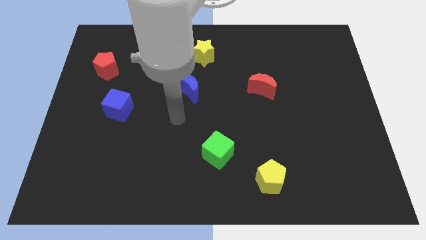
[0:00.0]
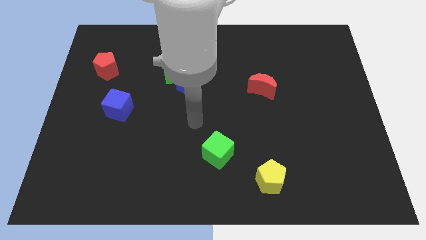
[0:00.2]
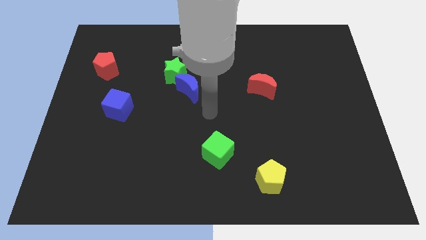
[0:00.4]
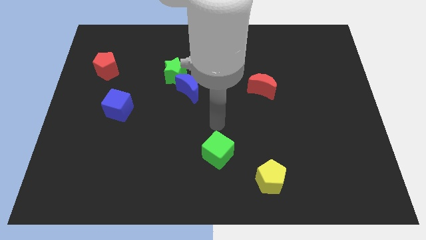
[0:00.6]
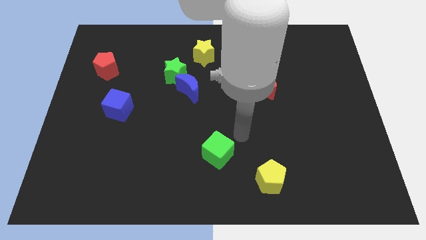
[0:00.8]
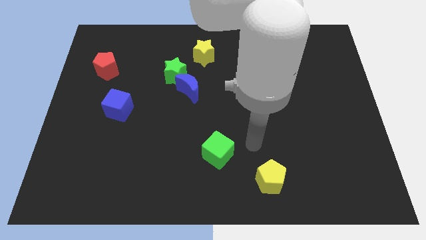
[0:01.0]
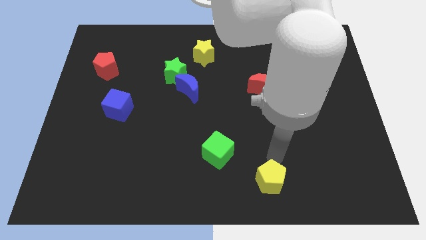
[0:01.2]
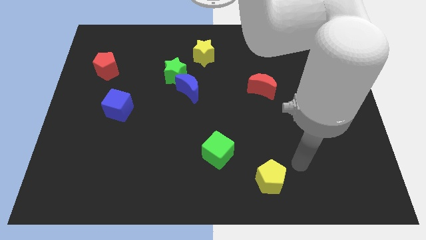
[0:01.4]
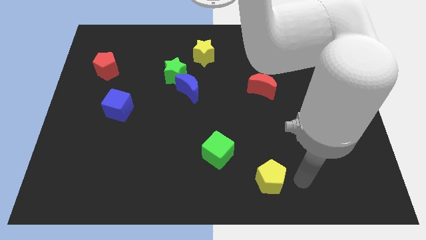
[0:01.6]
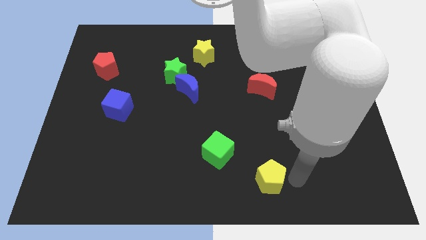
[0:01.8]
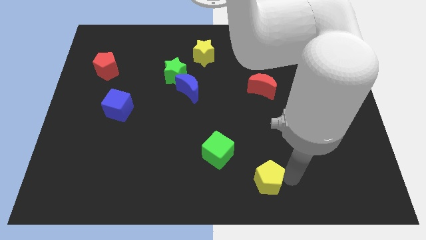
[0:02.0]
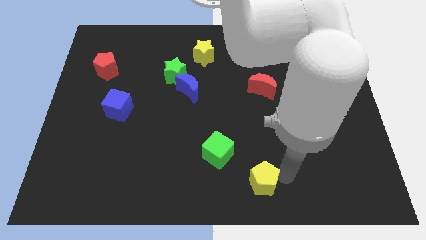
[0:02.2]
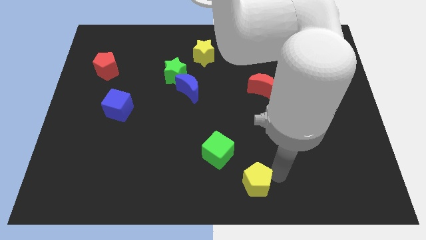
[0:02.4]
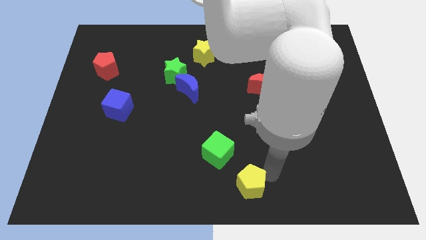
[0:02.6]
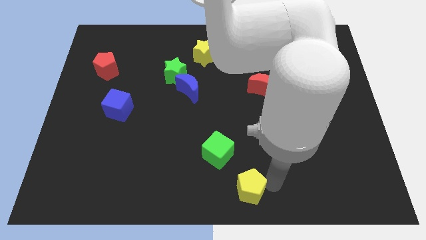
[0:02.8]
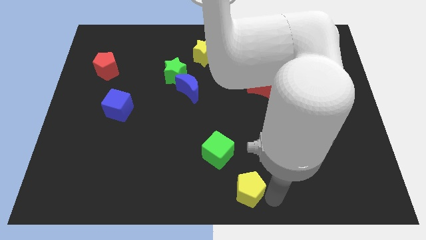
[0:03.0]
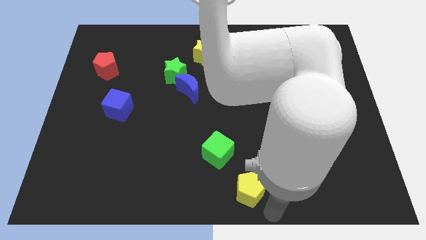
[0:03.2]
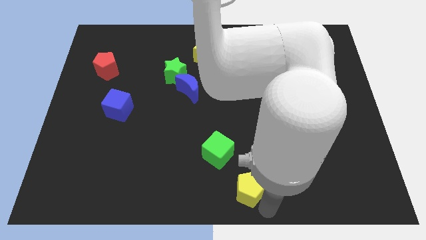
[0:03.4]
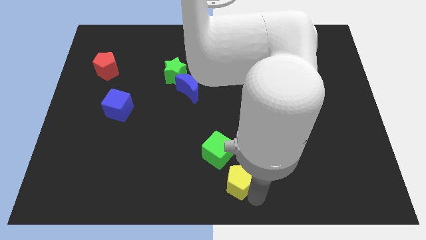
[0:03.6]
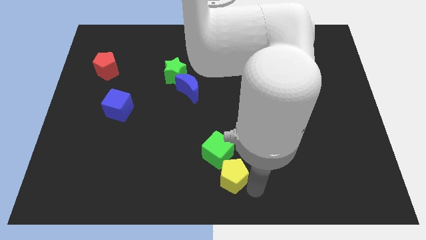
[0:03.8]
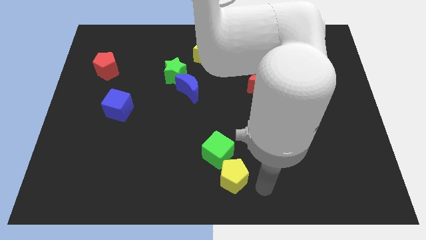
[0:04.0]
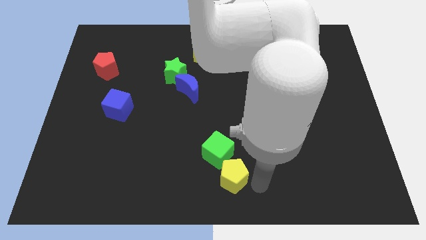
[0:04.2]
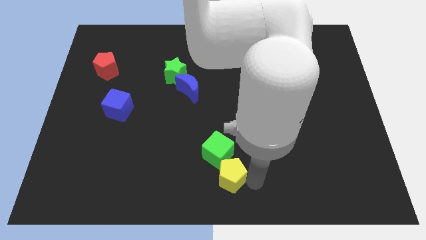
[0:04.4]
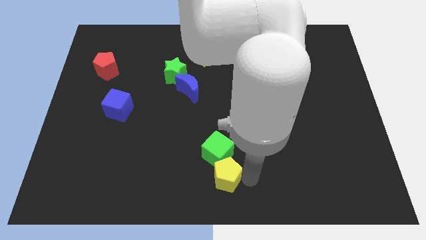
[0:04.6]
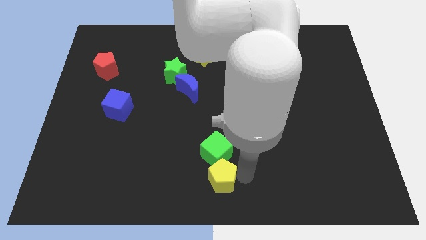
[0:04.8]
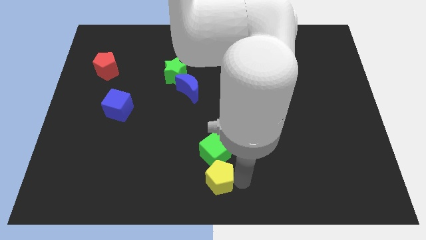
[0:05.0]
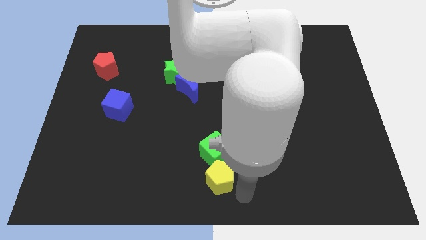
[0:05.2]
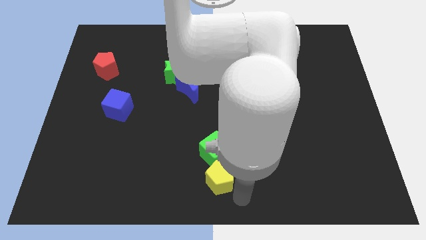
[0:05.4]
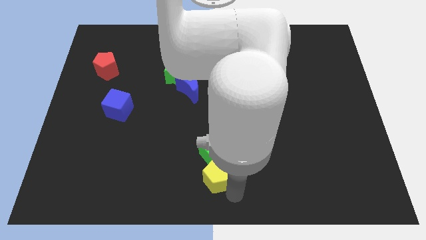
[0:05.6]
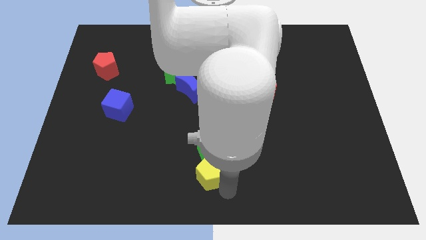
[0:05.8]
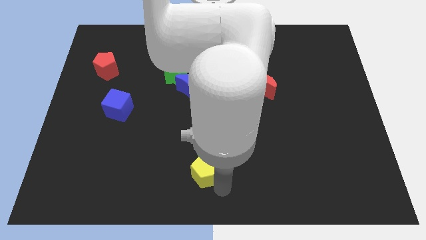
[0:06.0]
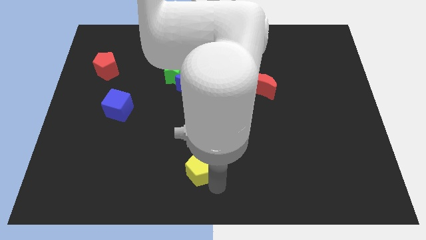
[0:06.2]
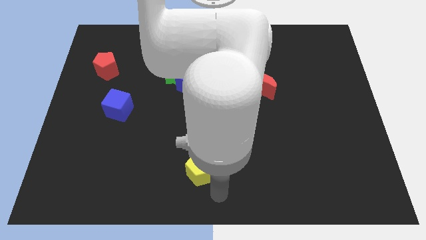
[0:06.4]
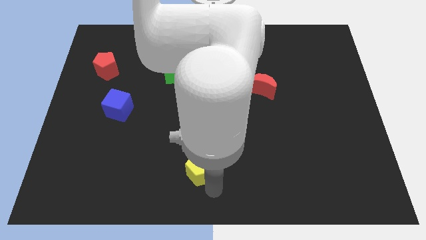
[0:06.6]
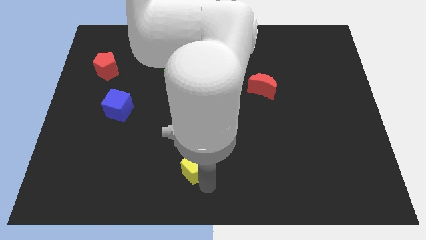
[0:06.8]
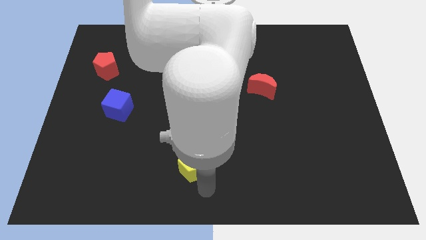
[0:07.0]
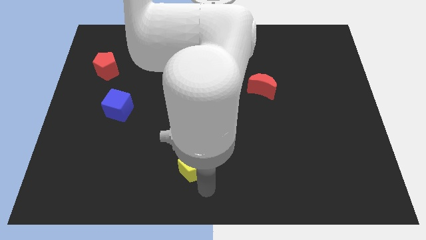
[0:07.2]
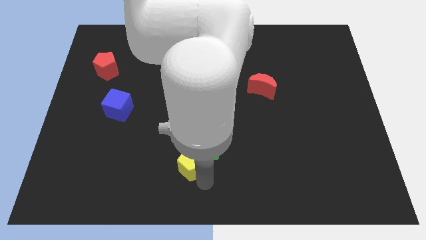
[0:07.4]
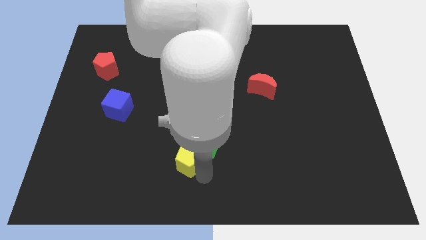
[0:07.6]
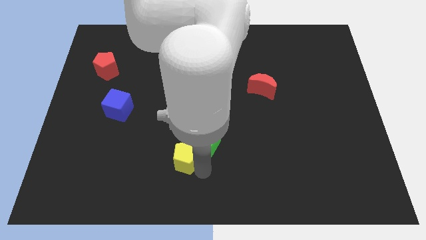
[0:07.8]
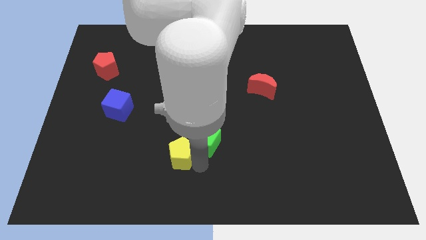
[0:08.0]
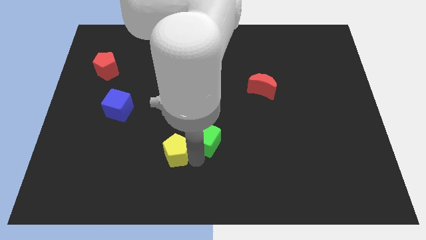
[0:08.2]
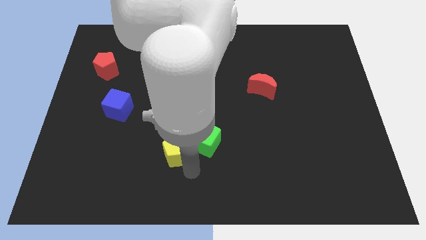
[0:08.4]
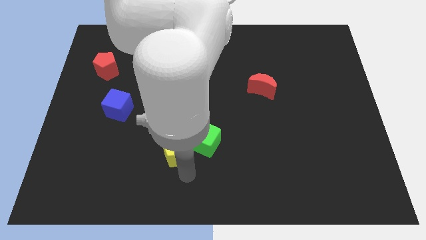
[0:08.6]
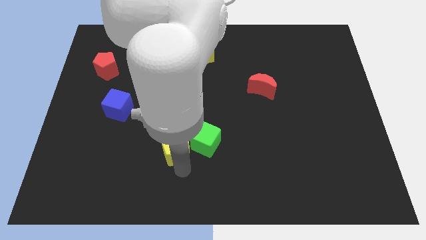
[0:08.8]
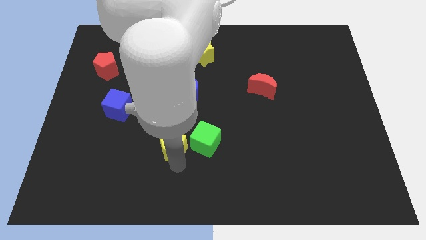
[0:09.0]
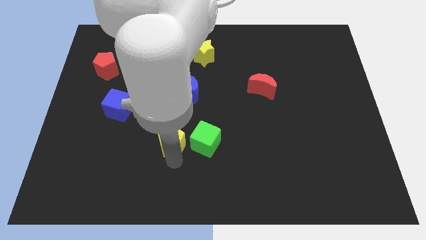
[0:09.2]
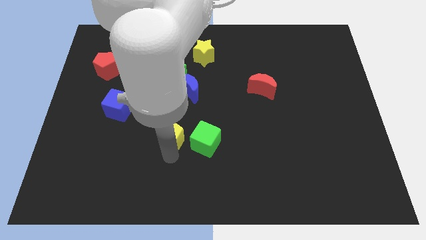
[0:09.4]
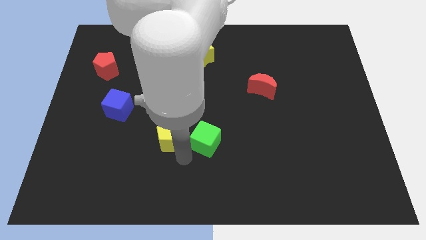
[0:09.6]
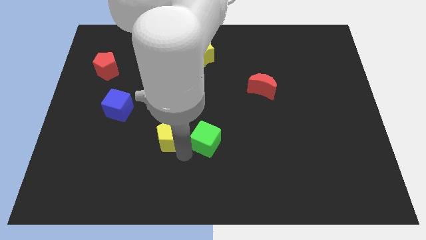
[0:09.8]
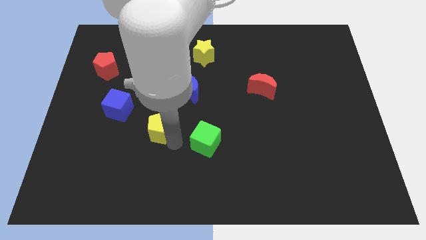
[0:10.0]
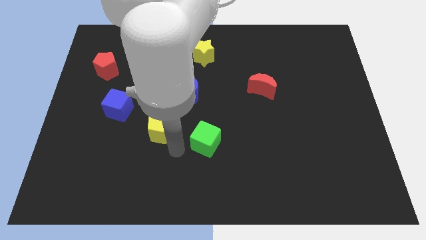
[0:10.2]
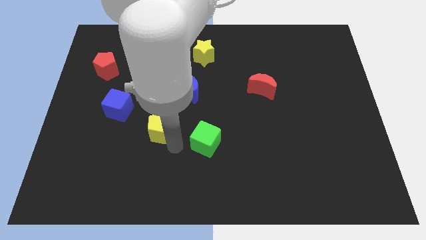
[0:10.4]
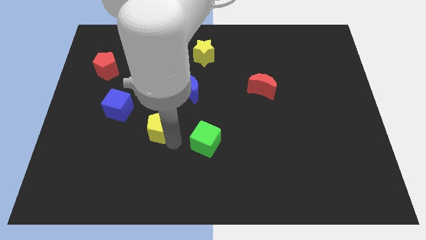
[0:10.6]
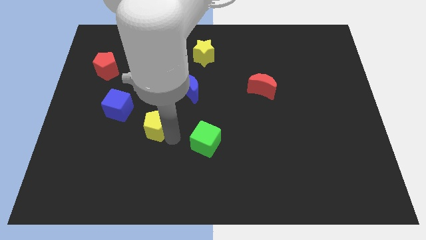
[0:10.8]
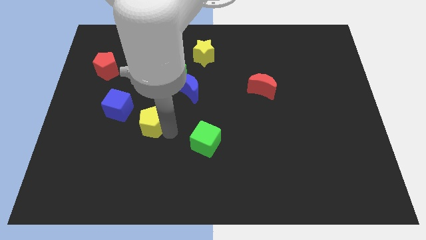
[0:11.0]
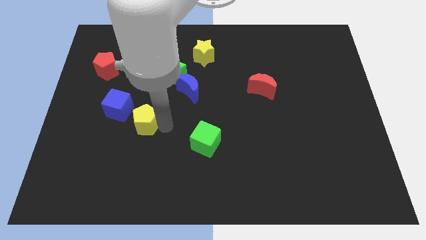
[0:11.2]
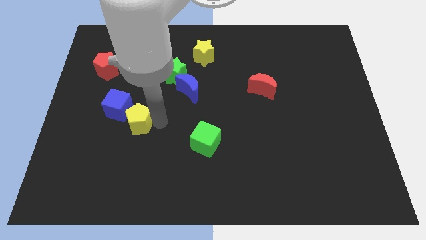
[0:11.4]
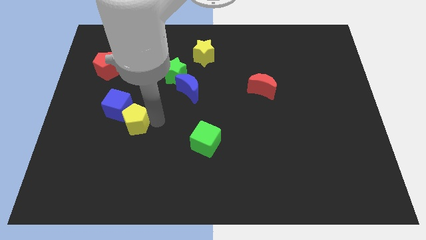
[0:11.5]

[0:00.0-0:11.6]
slide the yellow pentagon to the blue cube

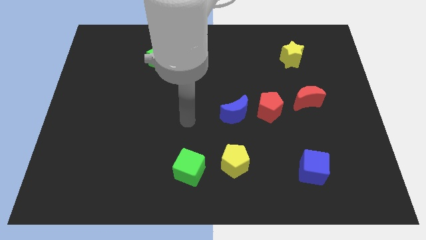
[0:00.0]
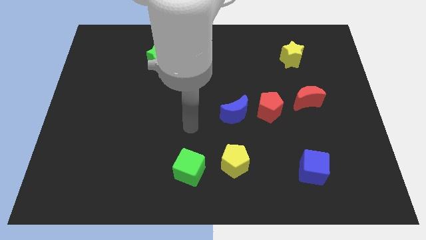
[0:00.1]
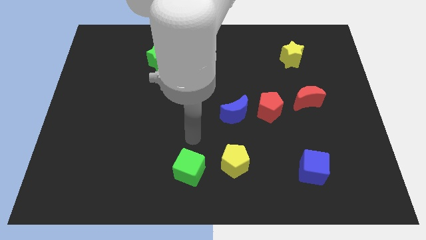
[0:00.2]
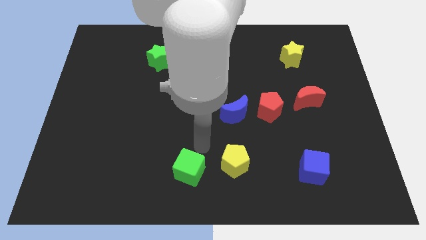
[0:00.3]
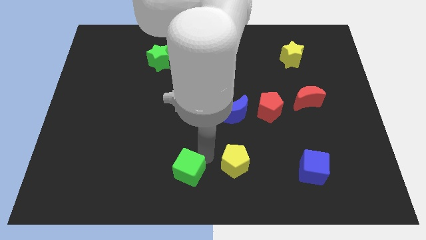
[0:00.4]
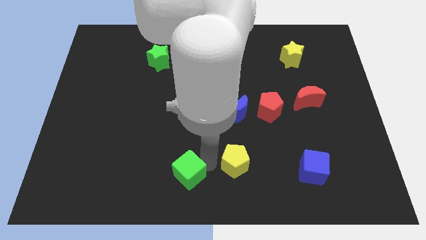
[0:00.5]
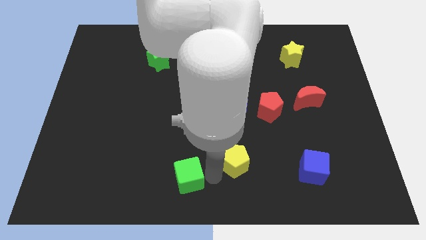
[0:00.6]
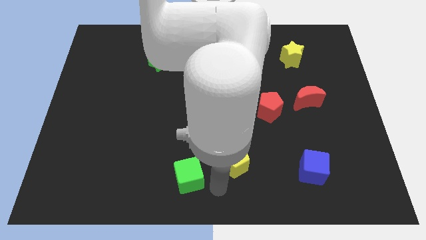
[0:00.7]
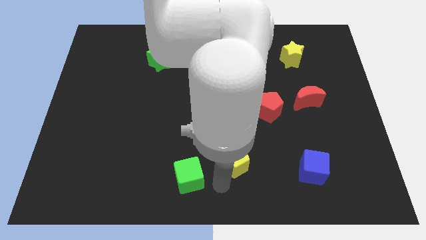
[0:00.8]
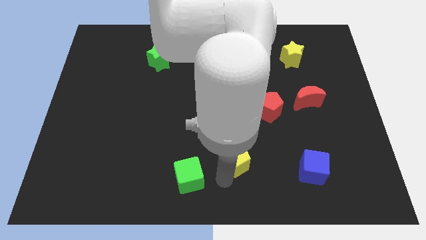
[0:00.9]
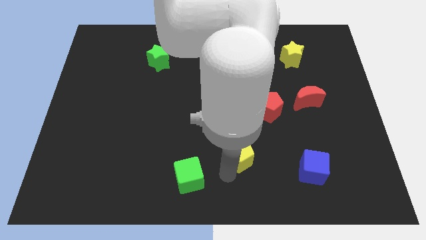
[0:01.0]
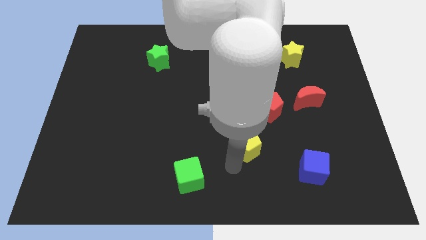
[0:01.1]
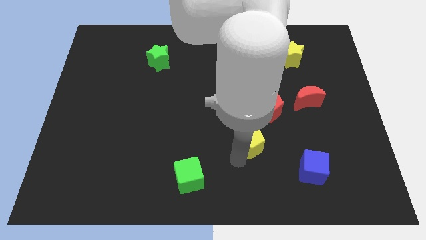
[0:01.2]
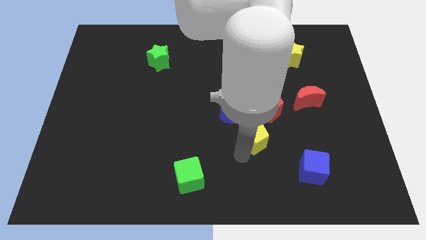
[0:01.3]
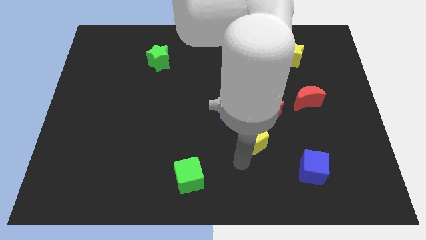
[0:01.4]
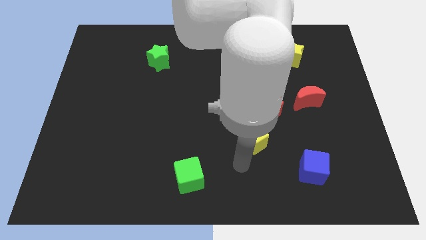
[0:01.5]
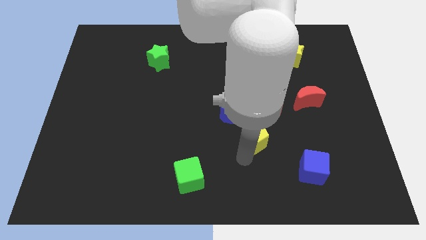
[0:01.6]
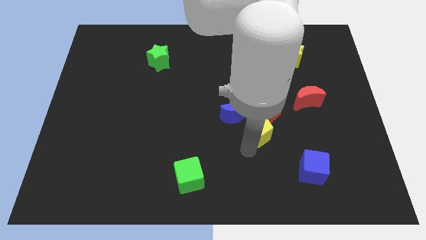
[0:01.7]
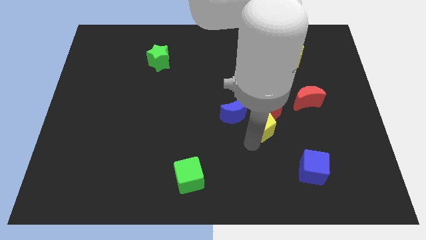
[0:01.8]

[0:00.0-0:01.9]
push the yellow pentagon to the red pentagon
